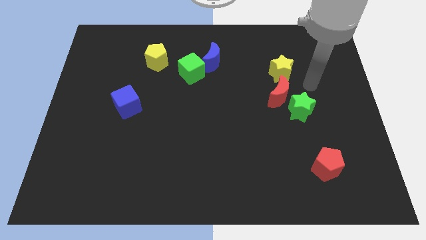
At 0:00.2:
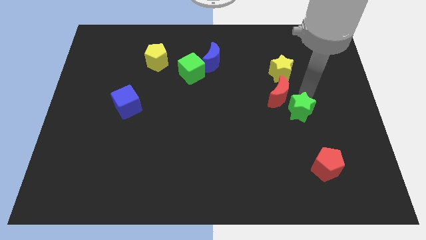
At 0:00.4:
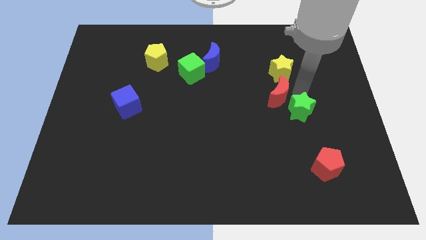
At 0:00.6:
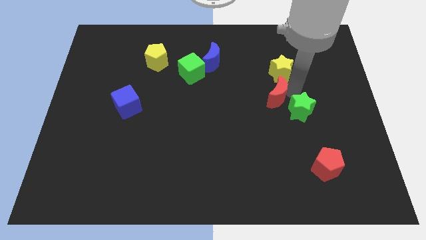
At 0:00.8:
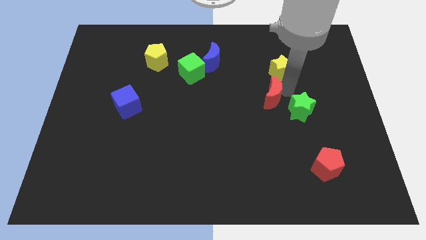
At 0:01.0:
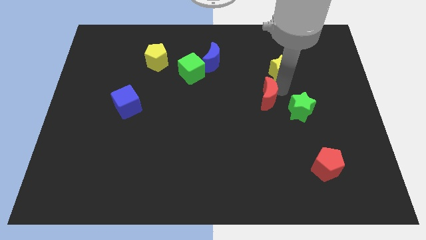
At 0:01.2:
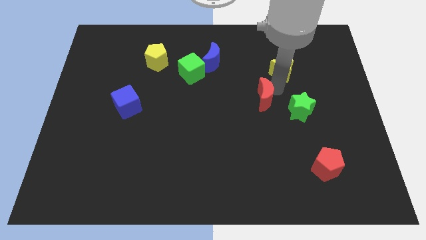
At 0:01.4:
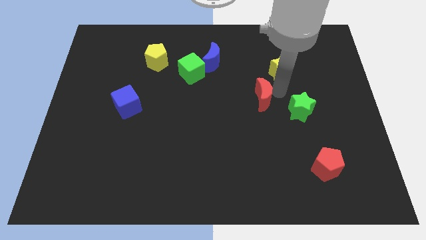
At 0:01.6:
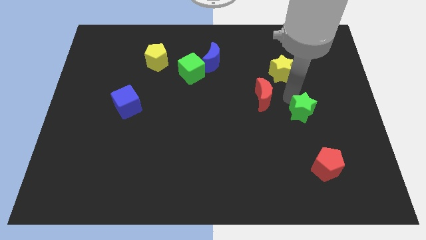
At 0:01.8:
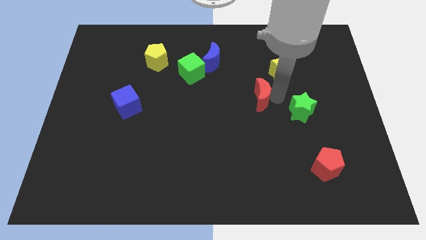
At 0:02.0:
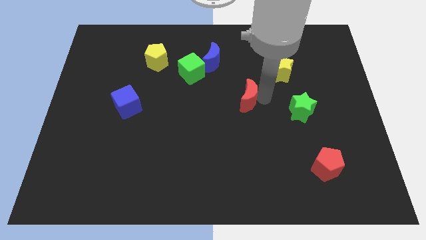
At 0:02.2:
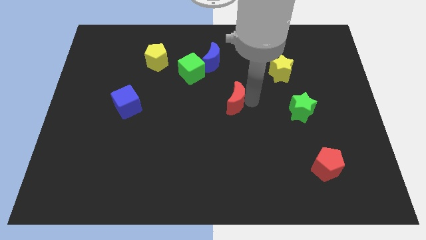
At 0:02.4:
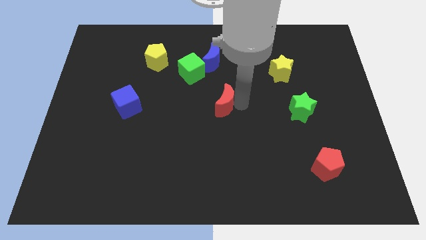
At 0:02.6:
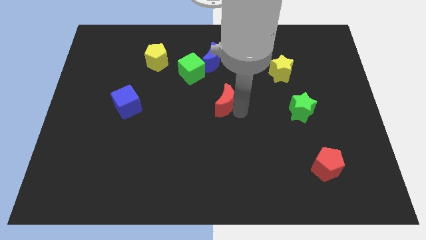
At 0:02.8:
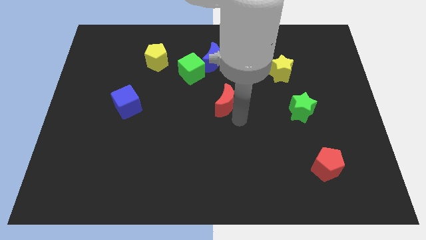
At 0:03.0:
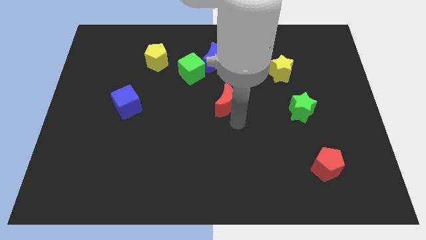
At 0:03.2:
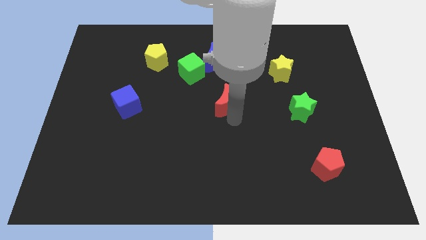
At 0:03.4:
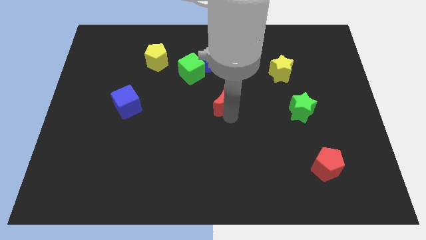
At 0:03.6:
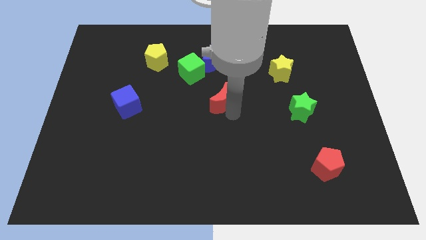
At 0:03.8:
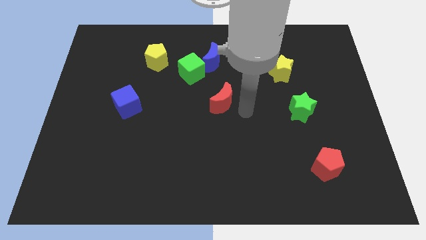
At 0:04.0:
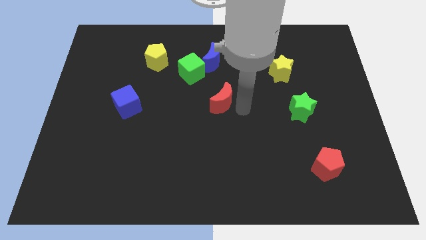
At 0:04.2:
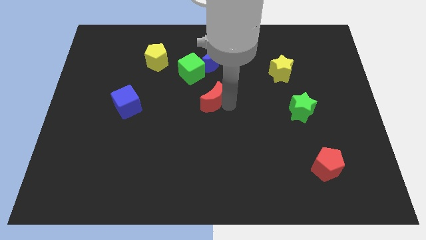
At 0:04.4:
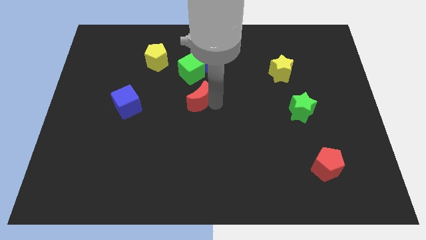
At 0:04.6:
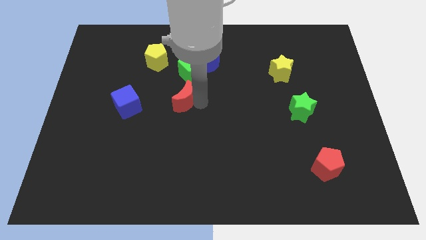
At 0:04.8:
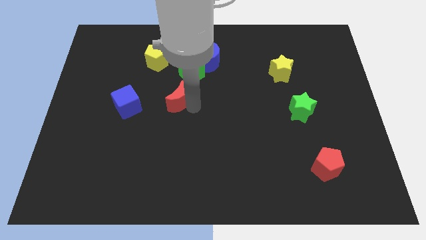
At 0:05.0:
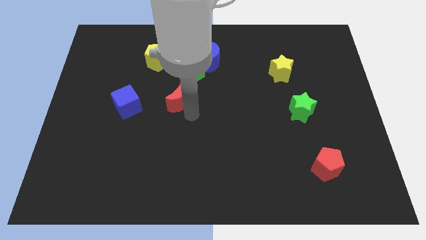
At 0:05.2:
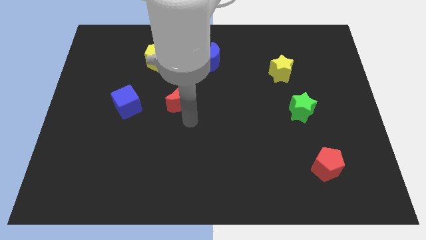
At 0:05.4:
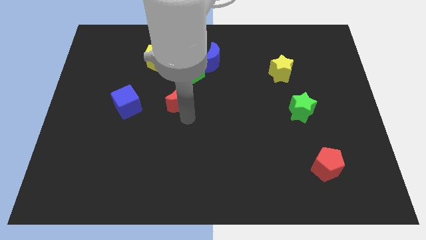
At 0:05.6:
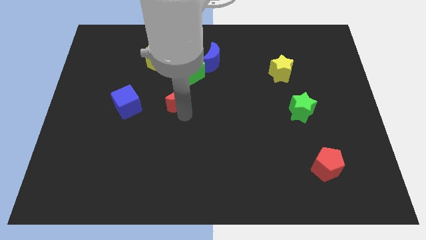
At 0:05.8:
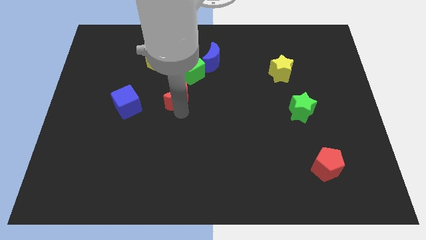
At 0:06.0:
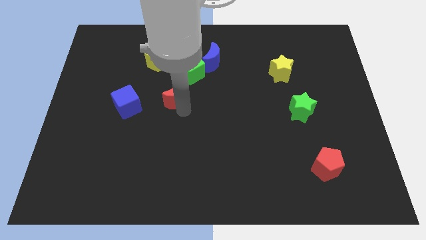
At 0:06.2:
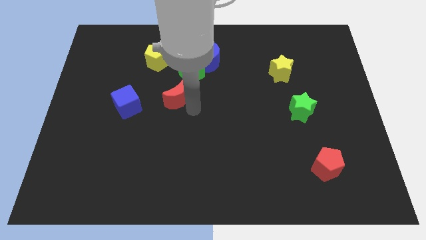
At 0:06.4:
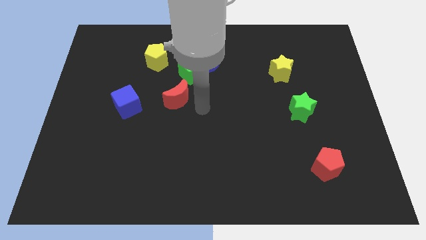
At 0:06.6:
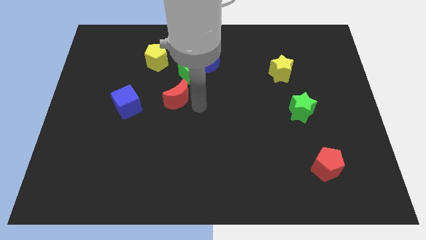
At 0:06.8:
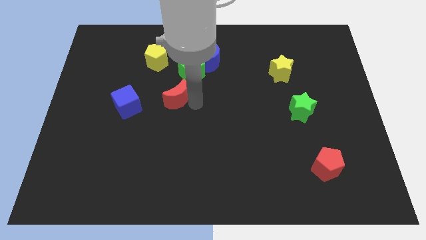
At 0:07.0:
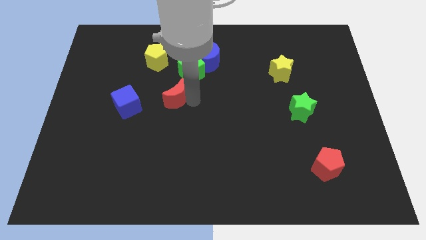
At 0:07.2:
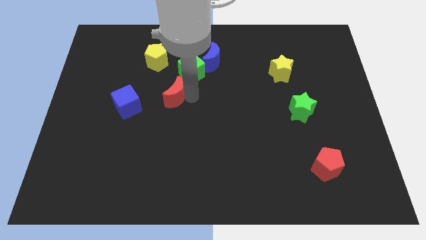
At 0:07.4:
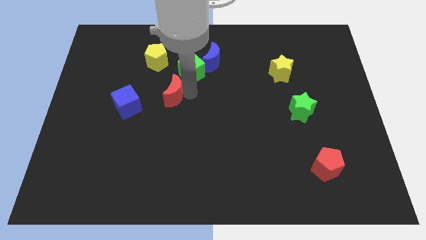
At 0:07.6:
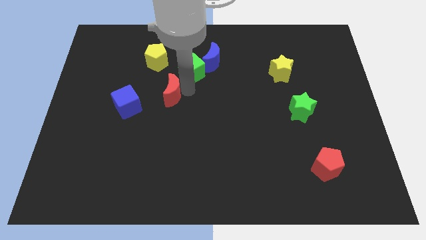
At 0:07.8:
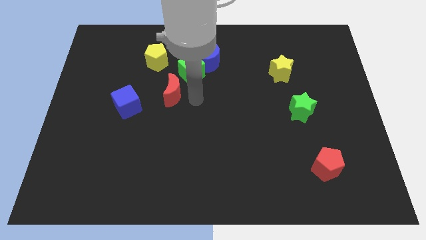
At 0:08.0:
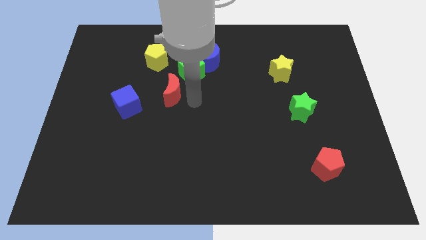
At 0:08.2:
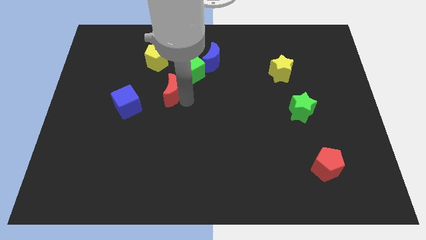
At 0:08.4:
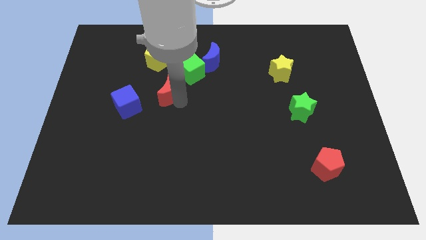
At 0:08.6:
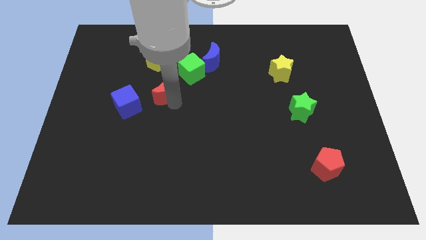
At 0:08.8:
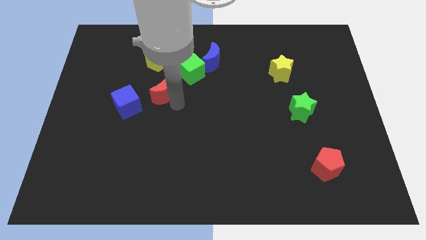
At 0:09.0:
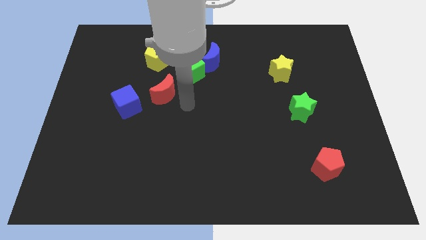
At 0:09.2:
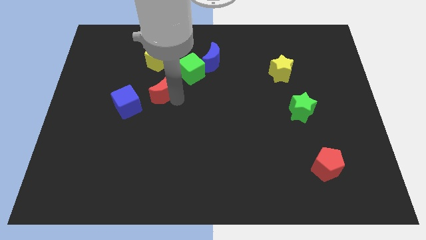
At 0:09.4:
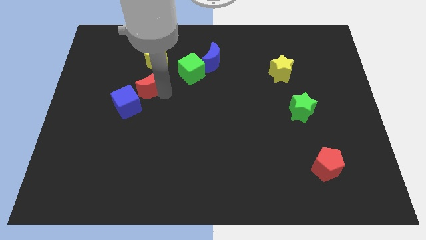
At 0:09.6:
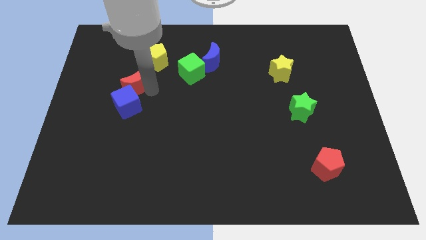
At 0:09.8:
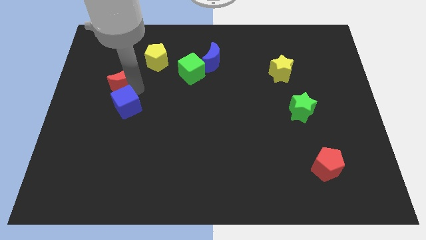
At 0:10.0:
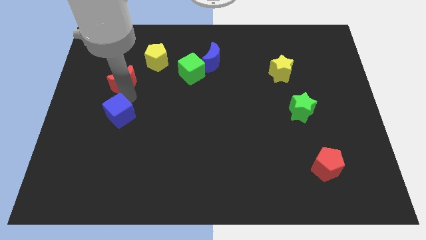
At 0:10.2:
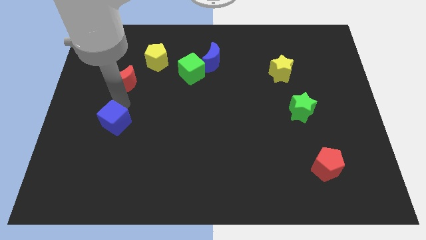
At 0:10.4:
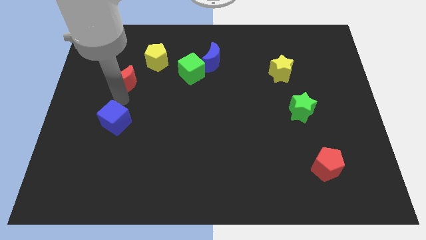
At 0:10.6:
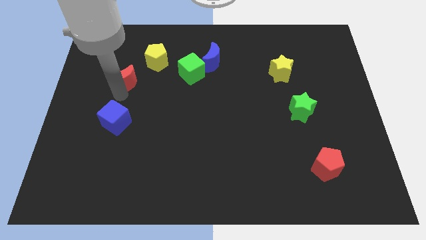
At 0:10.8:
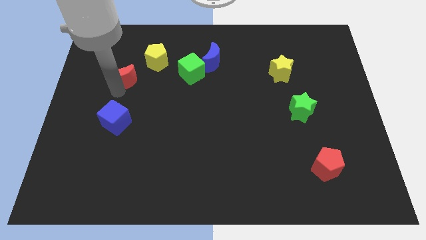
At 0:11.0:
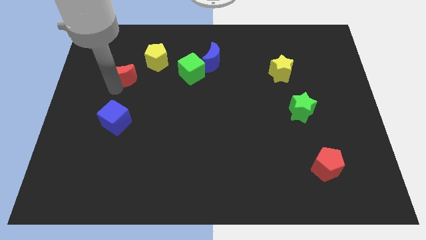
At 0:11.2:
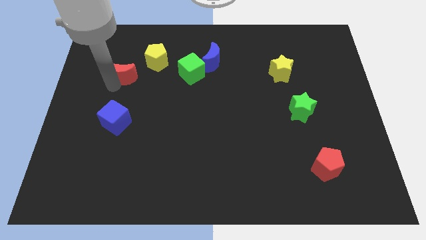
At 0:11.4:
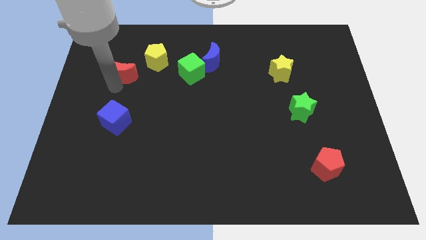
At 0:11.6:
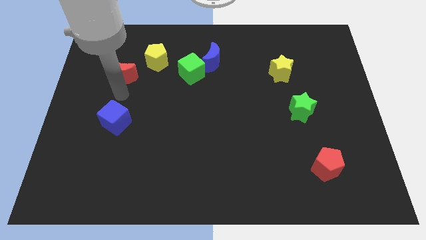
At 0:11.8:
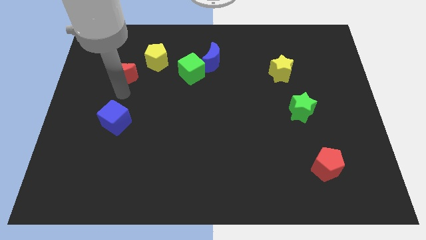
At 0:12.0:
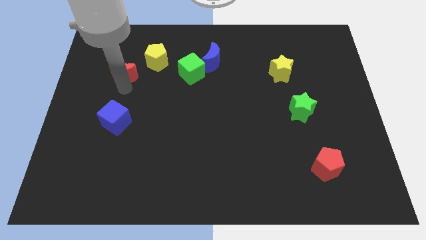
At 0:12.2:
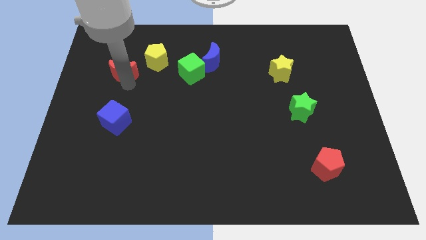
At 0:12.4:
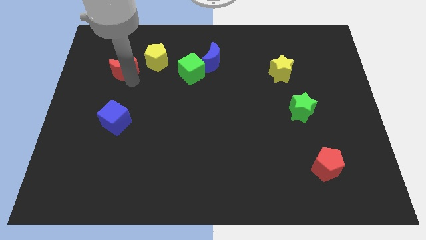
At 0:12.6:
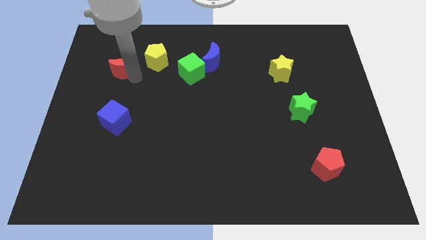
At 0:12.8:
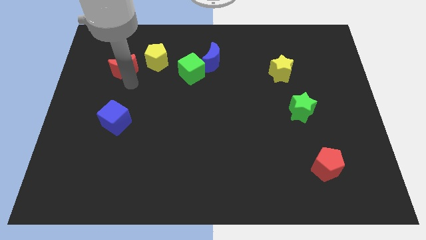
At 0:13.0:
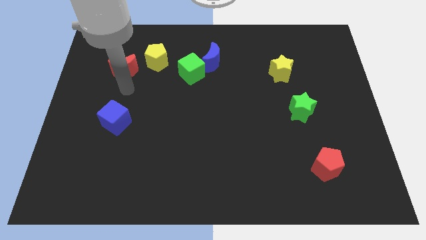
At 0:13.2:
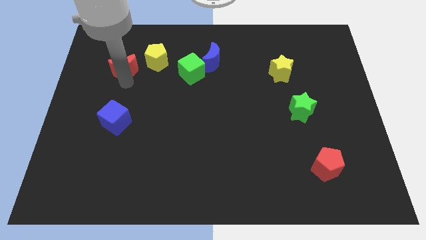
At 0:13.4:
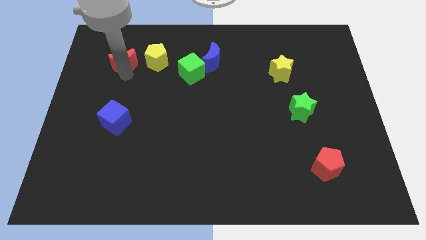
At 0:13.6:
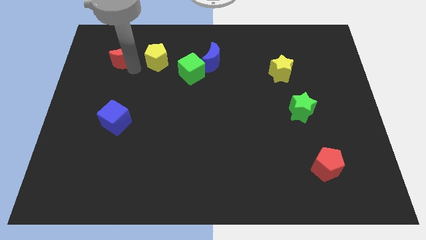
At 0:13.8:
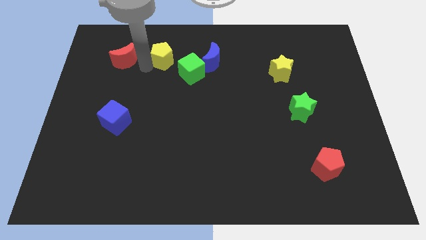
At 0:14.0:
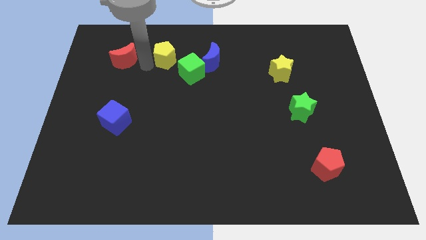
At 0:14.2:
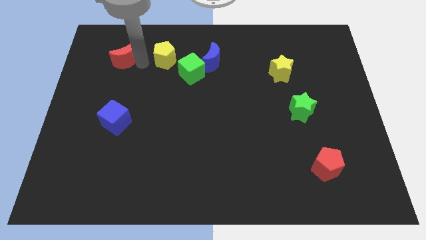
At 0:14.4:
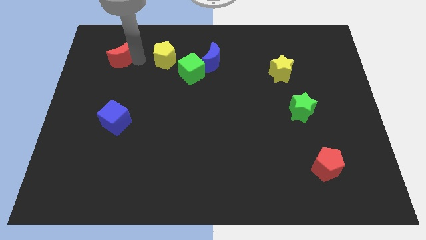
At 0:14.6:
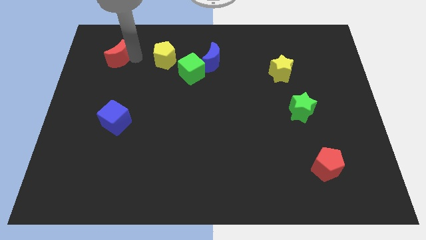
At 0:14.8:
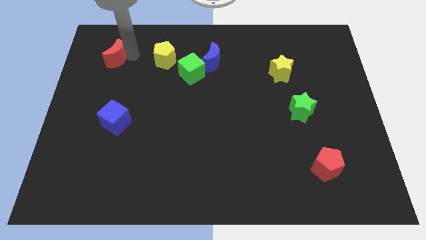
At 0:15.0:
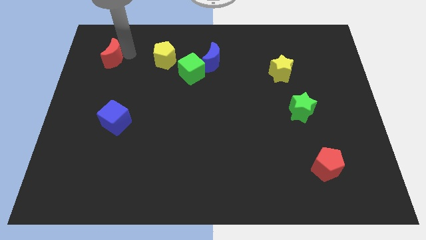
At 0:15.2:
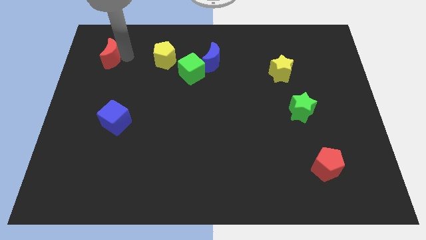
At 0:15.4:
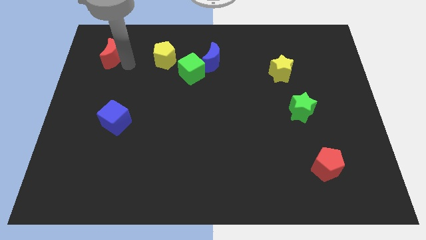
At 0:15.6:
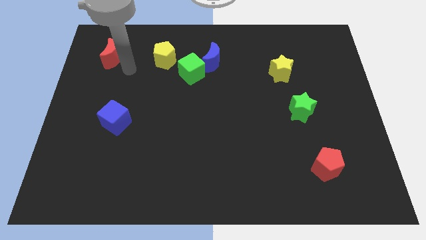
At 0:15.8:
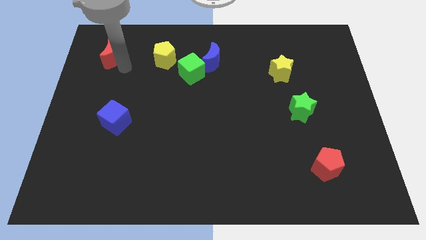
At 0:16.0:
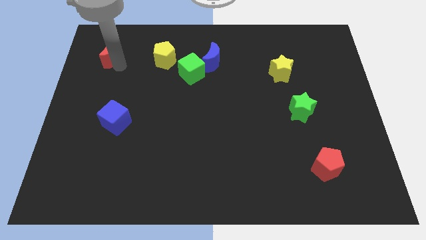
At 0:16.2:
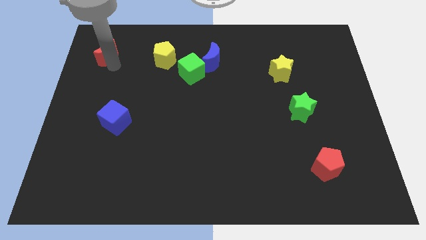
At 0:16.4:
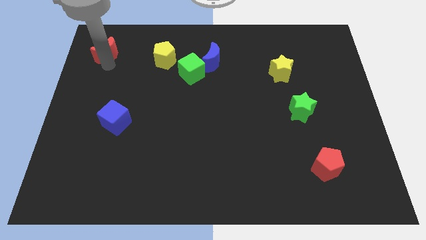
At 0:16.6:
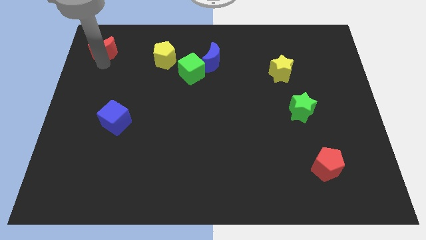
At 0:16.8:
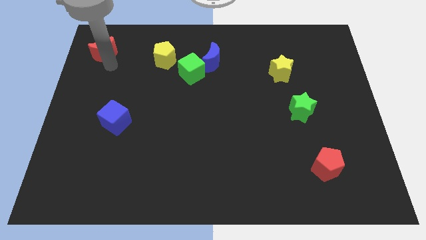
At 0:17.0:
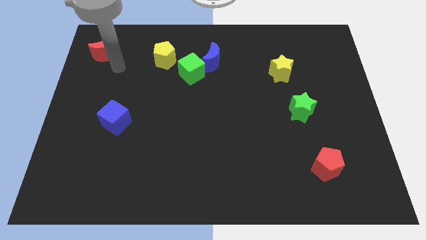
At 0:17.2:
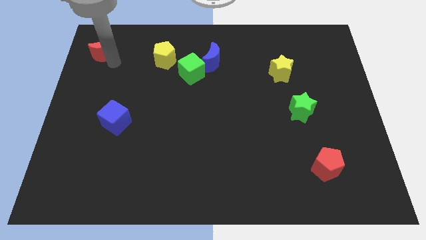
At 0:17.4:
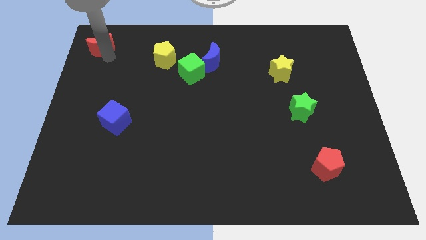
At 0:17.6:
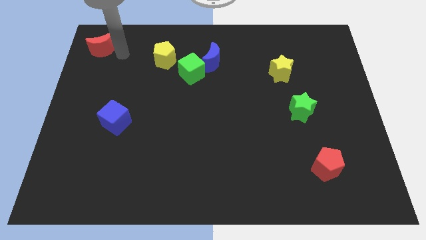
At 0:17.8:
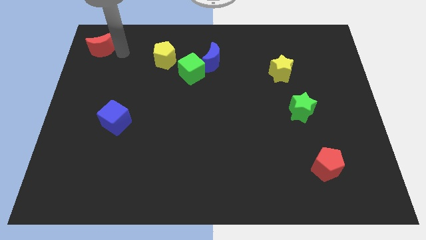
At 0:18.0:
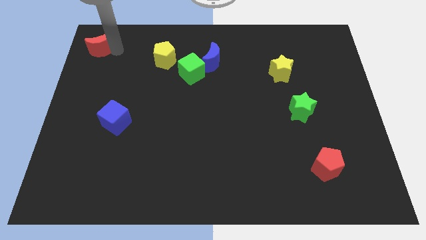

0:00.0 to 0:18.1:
push the red moon to the top left of the board
